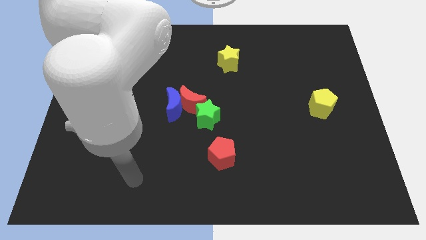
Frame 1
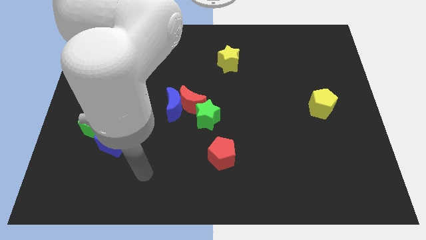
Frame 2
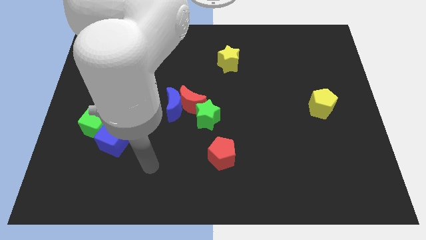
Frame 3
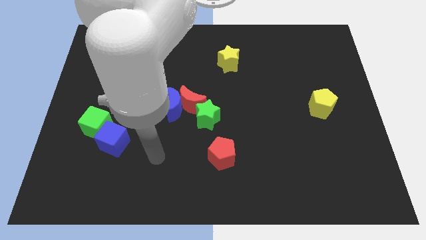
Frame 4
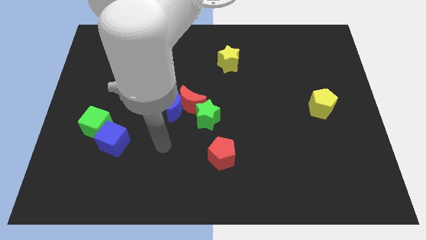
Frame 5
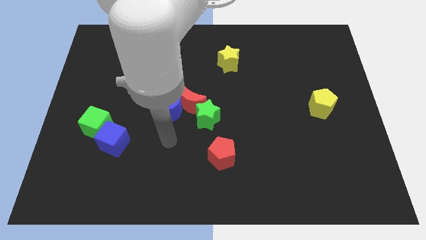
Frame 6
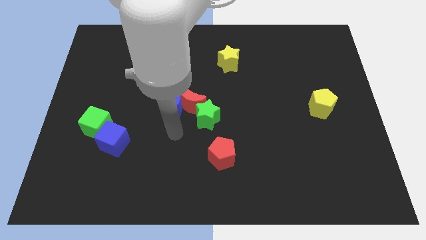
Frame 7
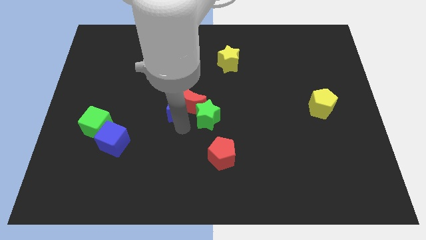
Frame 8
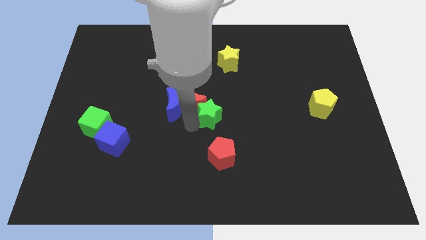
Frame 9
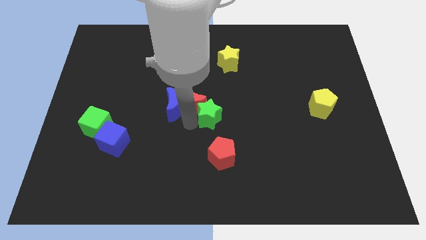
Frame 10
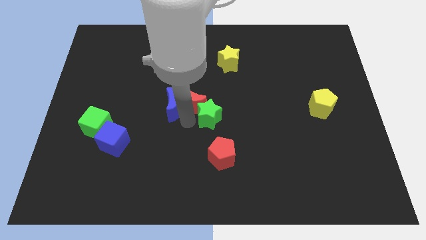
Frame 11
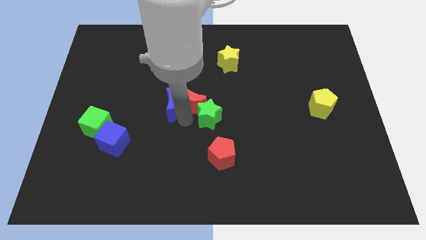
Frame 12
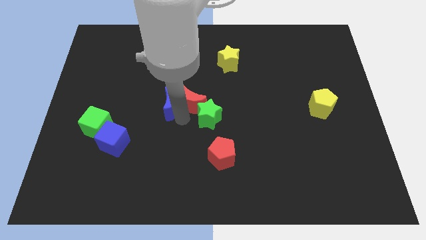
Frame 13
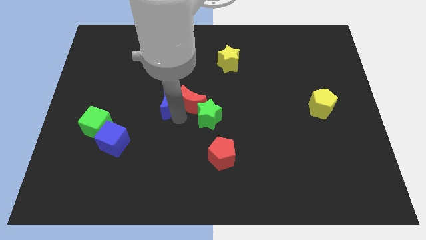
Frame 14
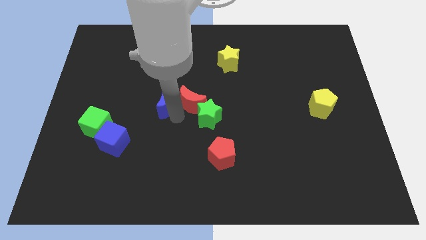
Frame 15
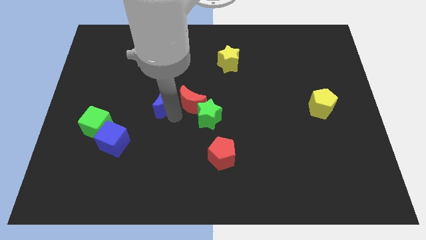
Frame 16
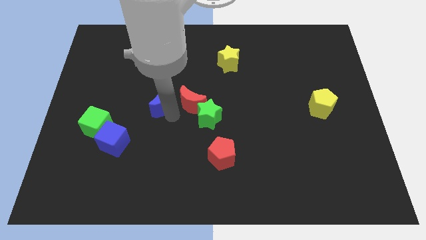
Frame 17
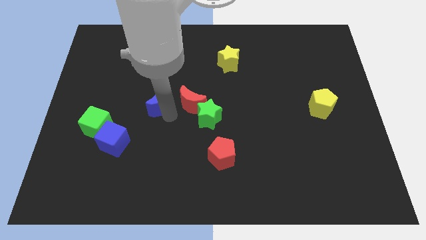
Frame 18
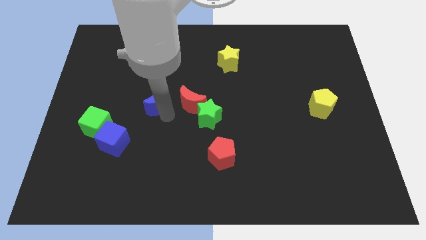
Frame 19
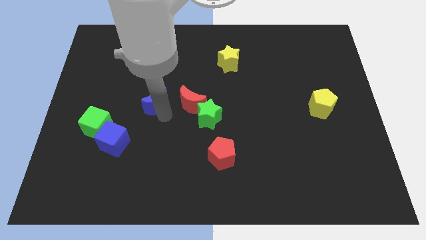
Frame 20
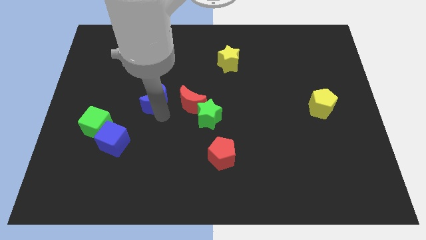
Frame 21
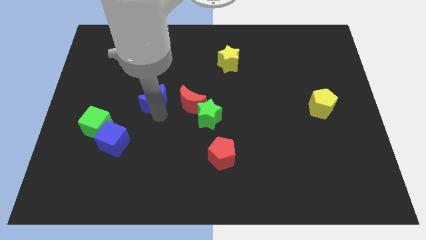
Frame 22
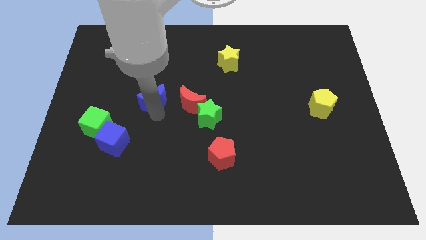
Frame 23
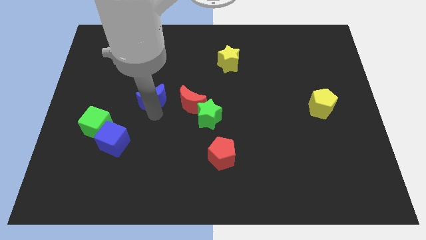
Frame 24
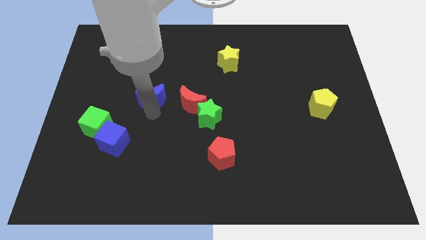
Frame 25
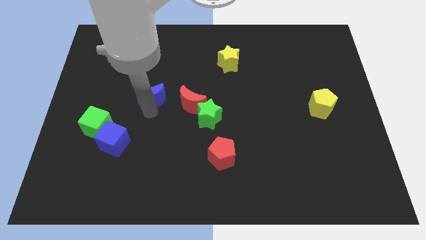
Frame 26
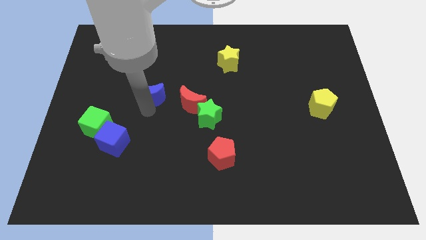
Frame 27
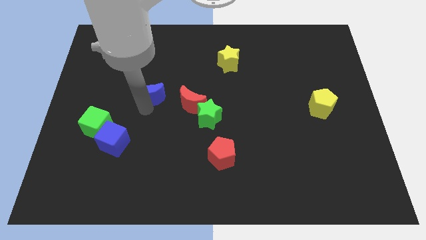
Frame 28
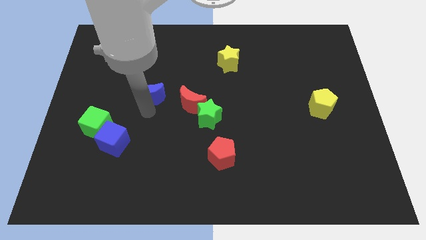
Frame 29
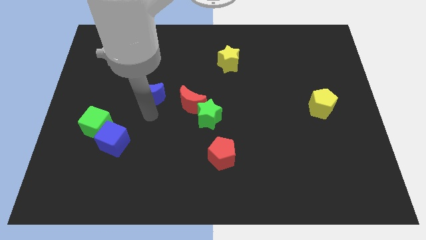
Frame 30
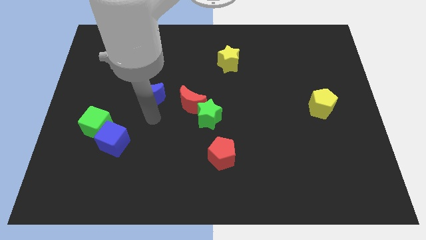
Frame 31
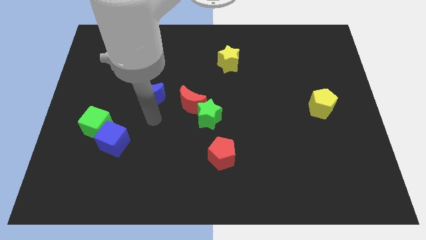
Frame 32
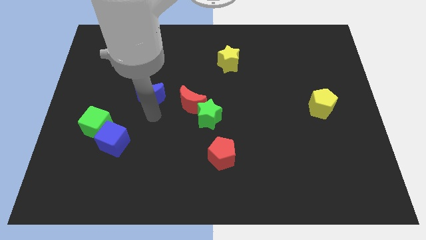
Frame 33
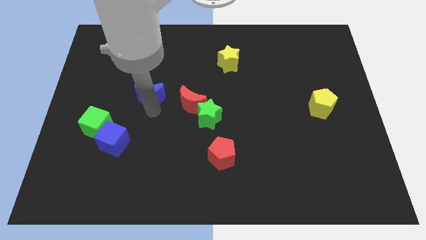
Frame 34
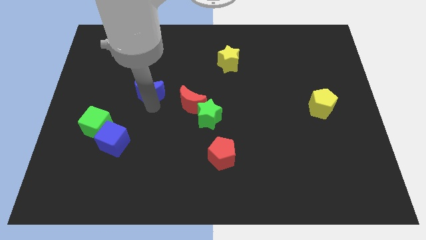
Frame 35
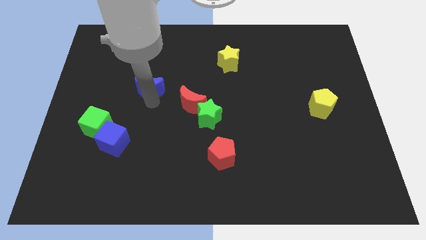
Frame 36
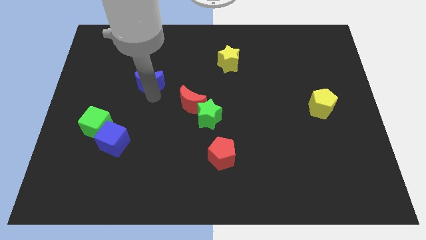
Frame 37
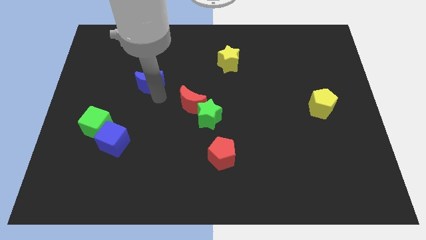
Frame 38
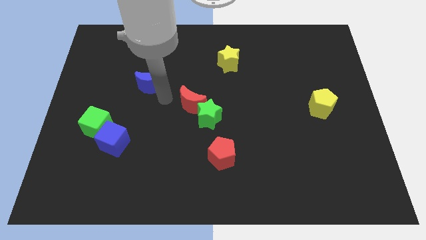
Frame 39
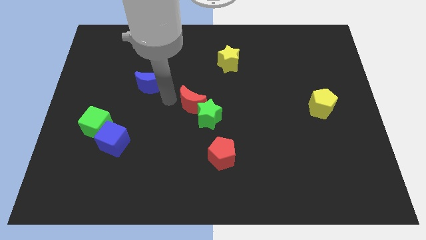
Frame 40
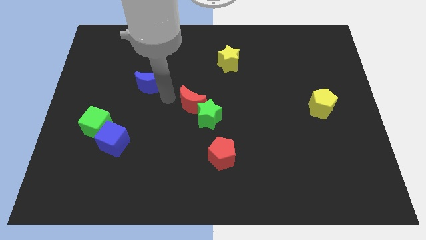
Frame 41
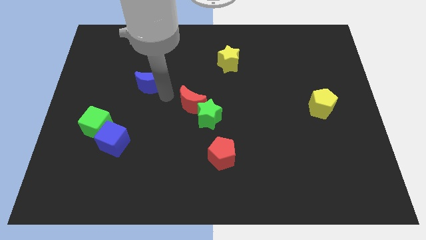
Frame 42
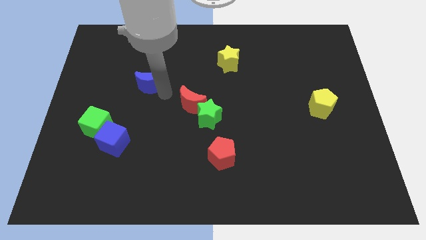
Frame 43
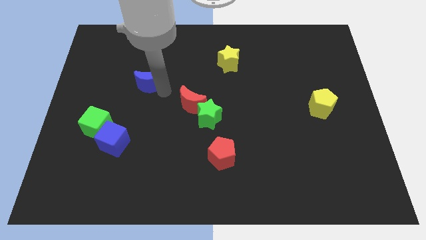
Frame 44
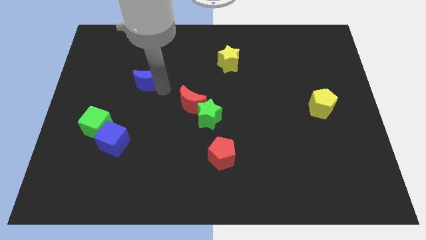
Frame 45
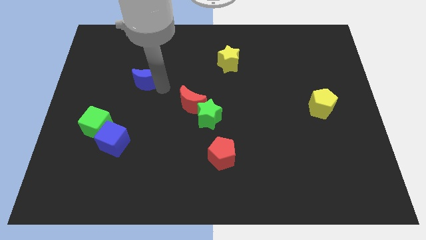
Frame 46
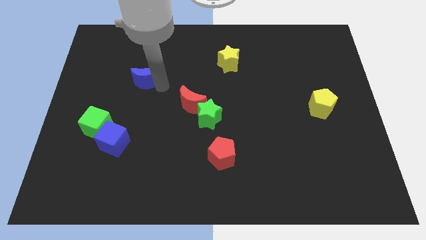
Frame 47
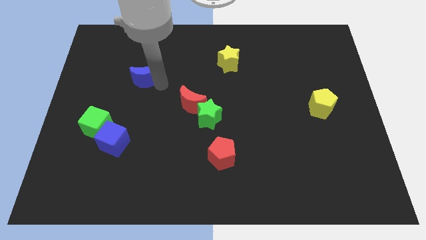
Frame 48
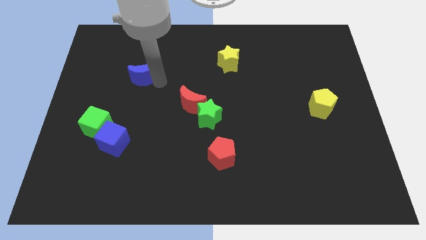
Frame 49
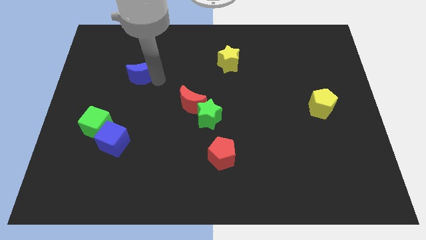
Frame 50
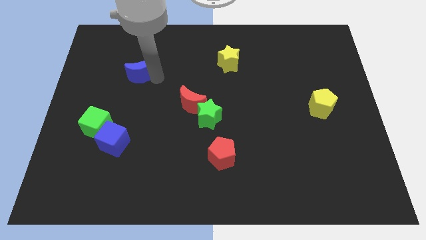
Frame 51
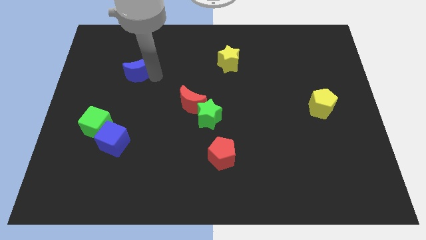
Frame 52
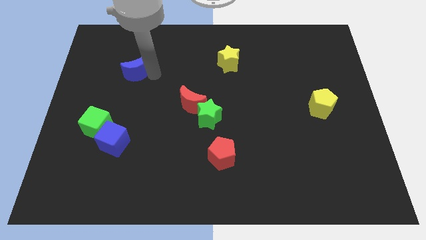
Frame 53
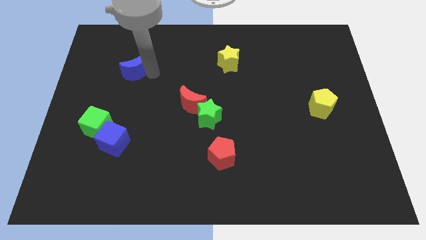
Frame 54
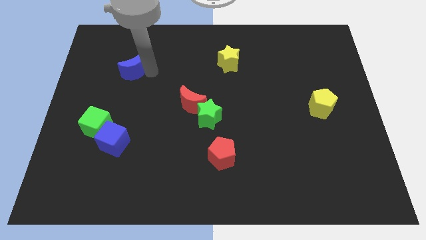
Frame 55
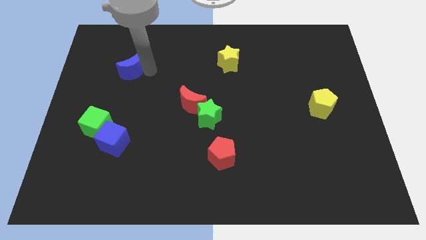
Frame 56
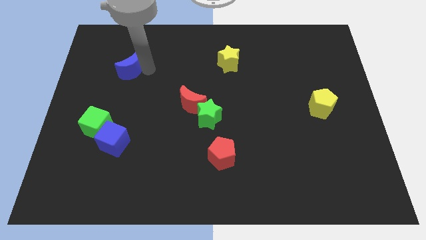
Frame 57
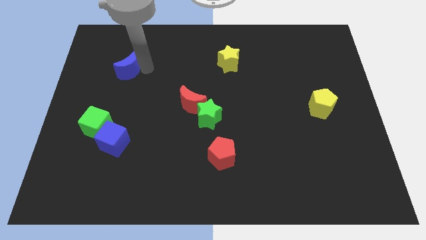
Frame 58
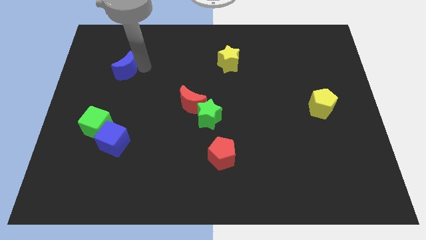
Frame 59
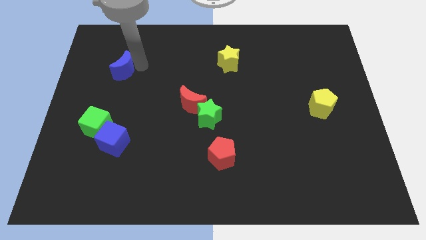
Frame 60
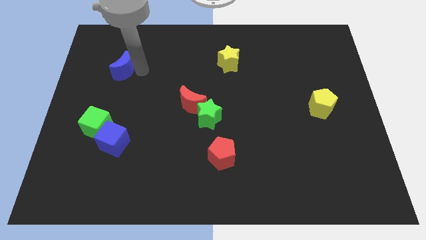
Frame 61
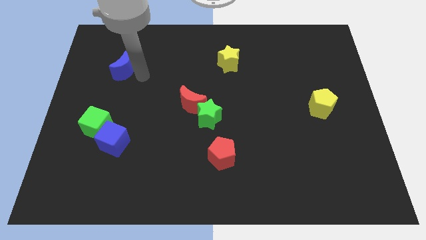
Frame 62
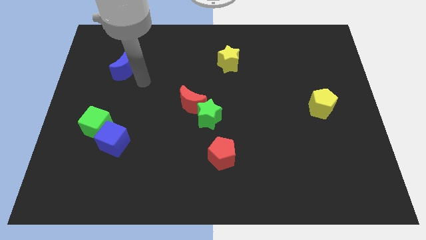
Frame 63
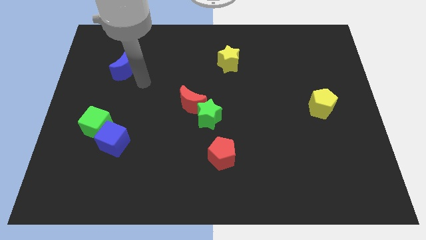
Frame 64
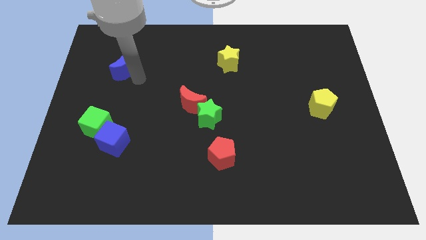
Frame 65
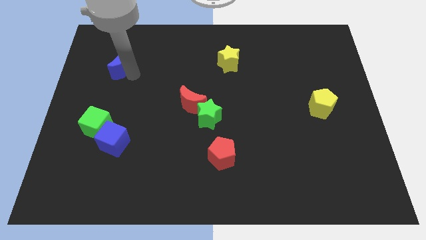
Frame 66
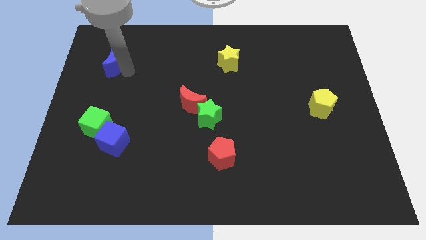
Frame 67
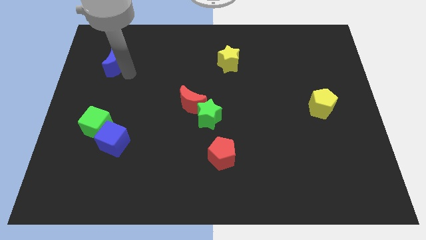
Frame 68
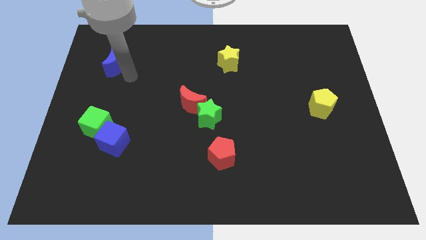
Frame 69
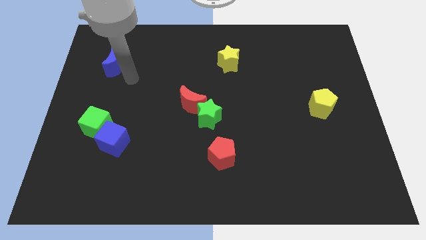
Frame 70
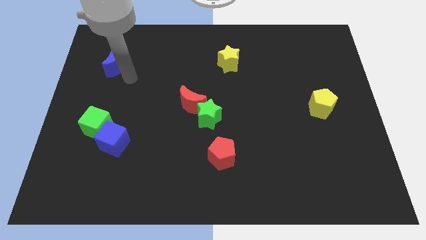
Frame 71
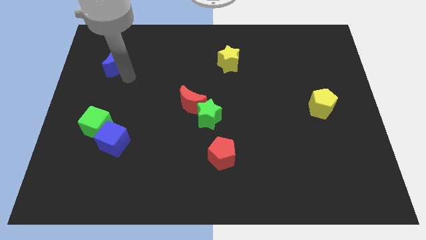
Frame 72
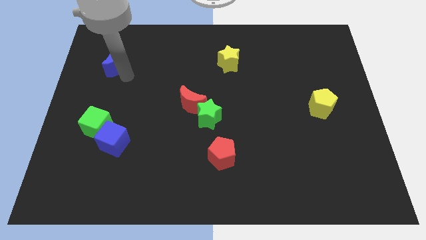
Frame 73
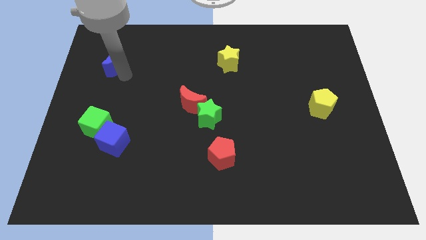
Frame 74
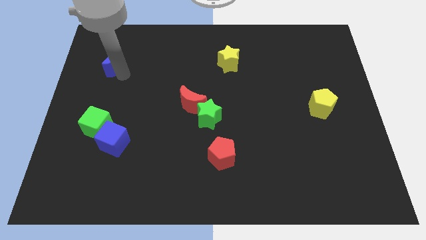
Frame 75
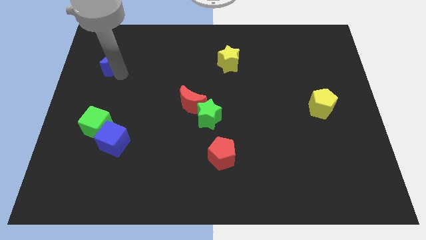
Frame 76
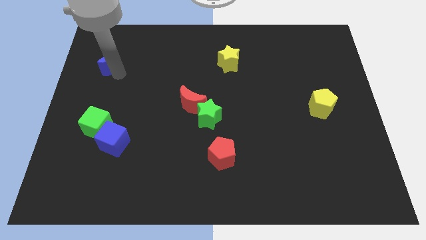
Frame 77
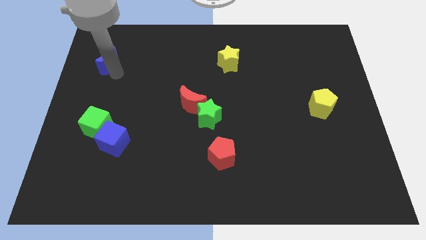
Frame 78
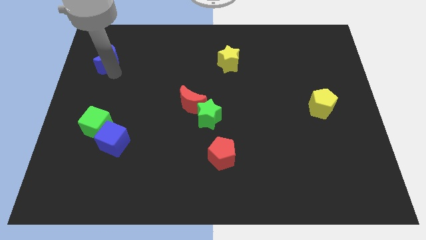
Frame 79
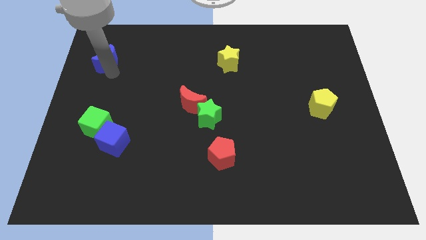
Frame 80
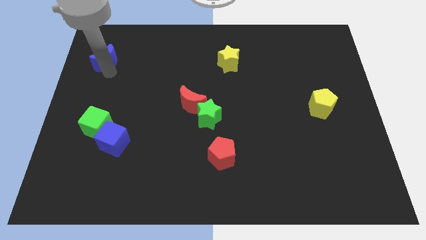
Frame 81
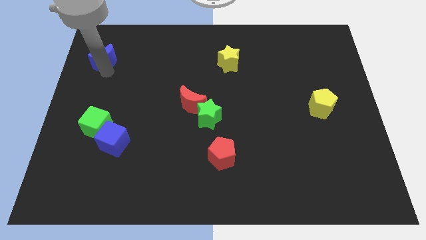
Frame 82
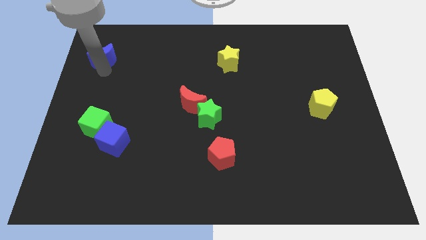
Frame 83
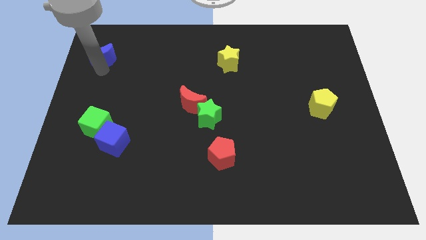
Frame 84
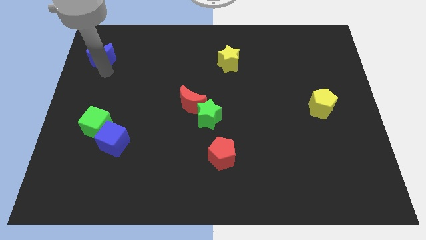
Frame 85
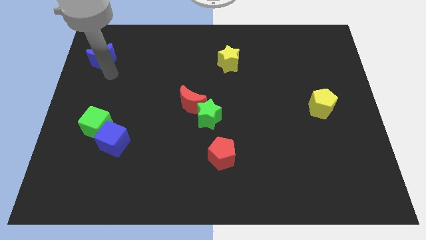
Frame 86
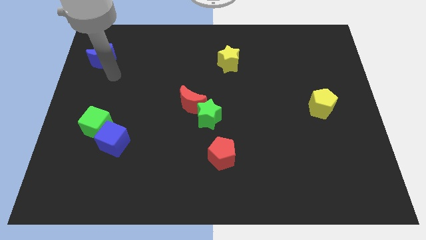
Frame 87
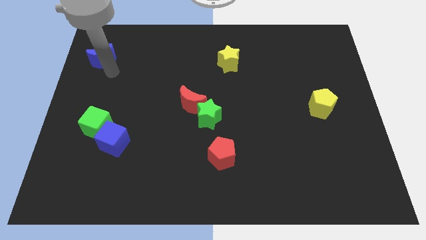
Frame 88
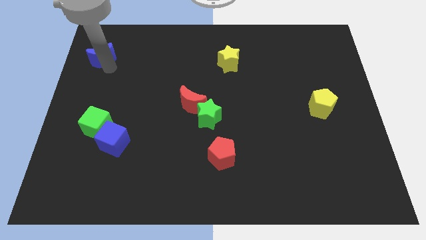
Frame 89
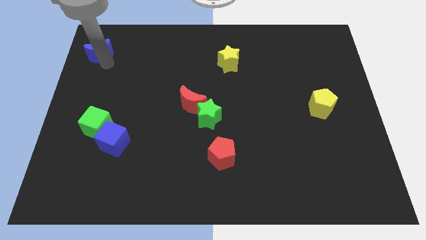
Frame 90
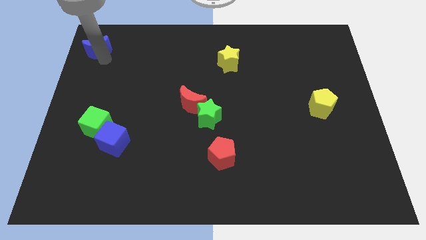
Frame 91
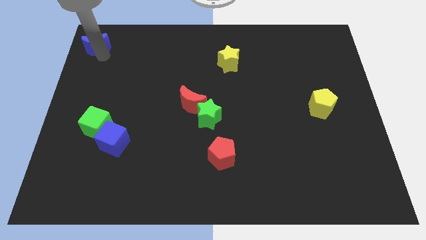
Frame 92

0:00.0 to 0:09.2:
put the blue moon to the top left corner
